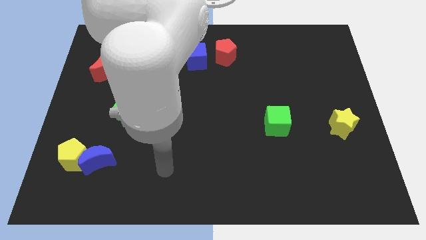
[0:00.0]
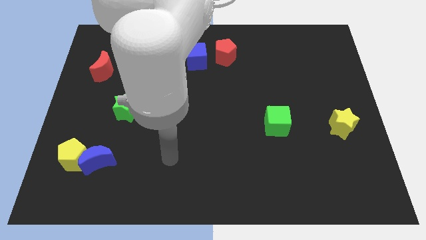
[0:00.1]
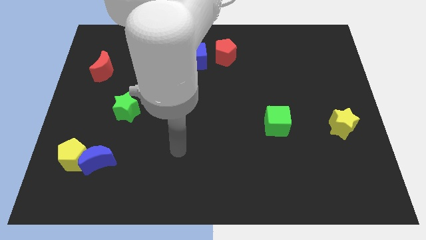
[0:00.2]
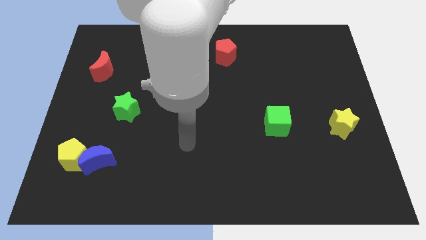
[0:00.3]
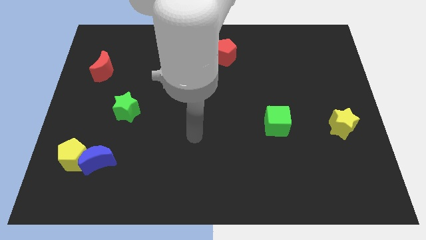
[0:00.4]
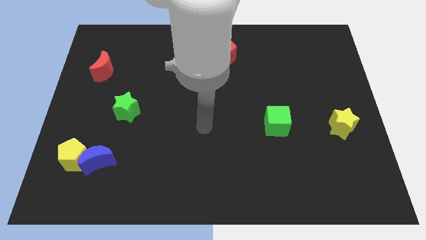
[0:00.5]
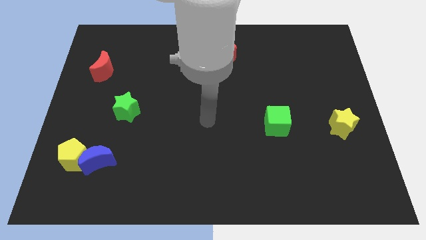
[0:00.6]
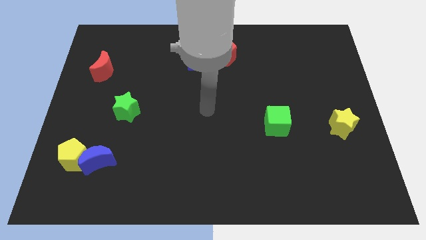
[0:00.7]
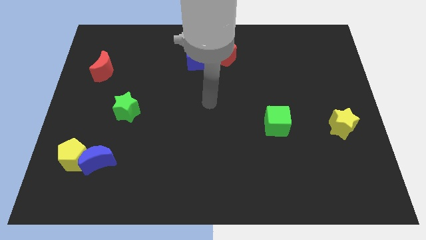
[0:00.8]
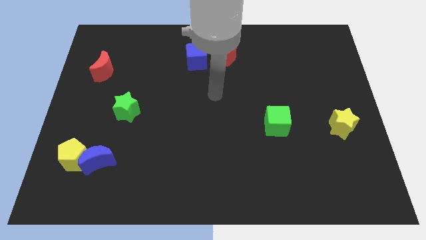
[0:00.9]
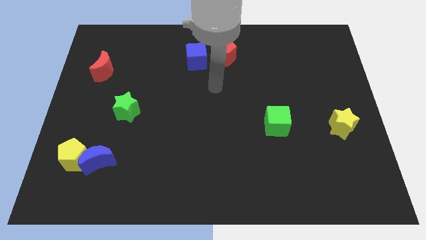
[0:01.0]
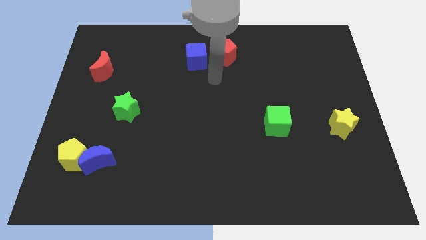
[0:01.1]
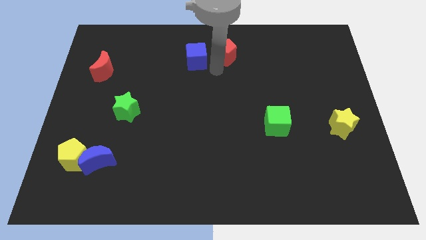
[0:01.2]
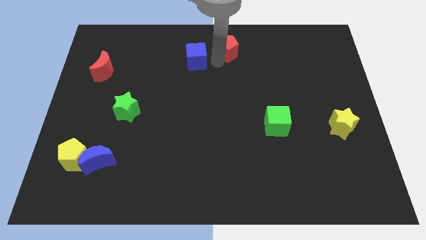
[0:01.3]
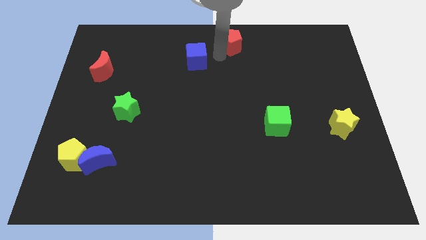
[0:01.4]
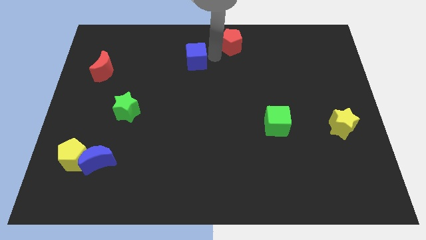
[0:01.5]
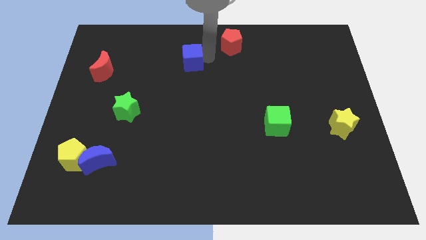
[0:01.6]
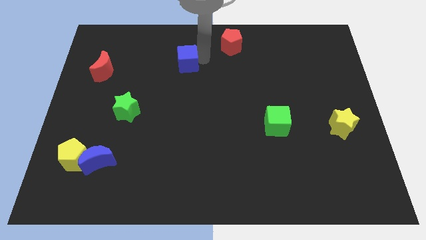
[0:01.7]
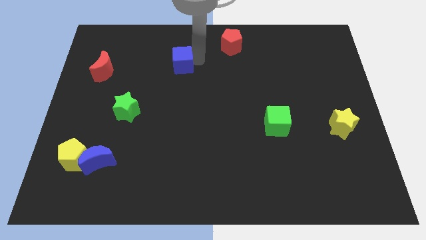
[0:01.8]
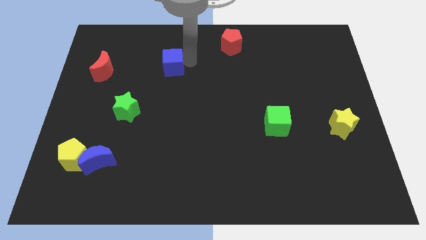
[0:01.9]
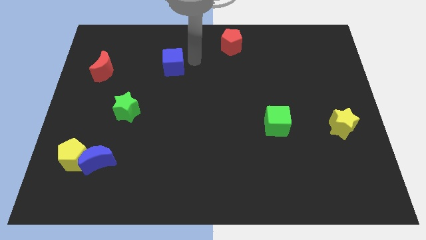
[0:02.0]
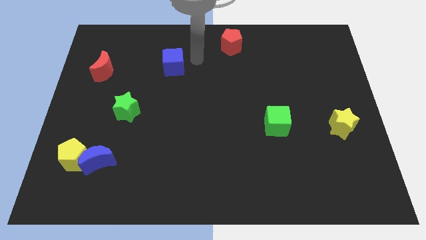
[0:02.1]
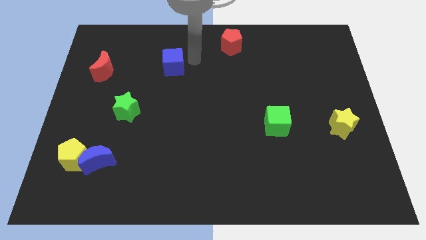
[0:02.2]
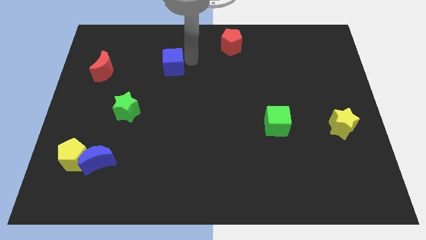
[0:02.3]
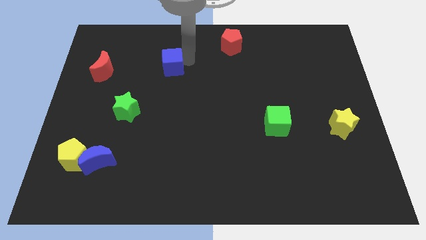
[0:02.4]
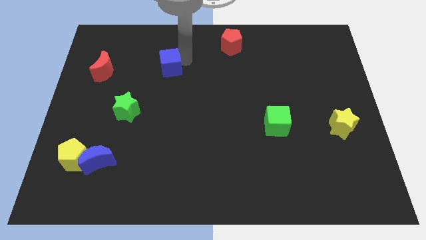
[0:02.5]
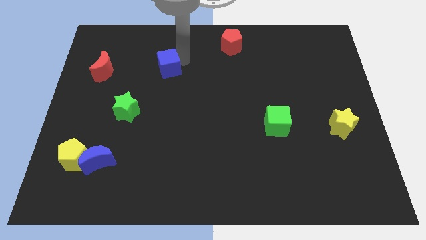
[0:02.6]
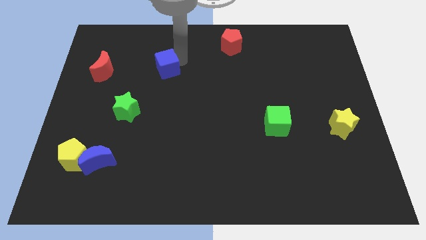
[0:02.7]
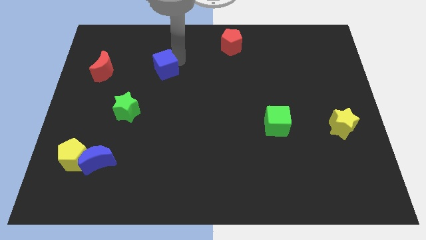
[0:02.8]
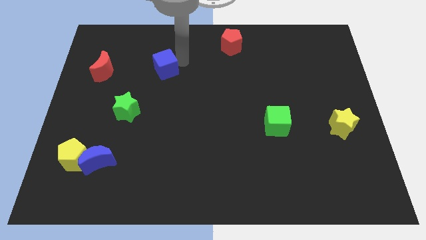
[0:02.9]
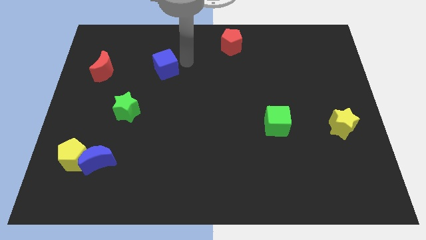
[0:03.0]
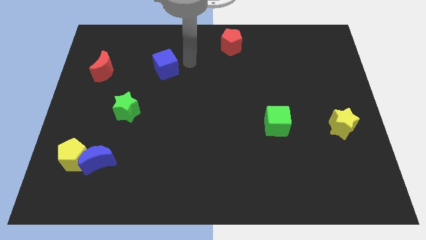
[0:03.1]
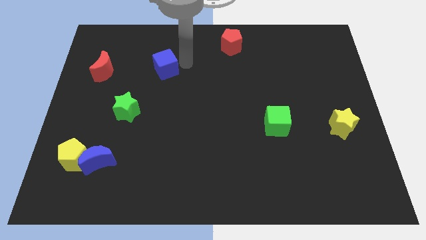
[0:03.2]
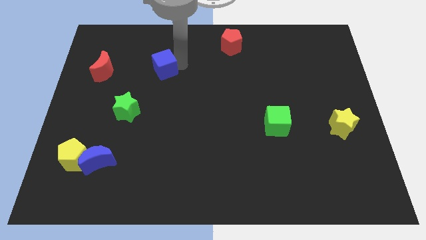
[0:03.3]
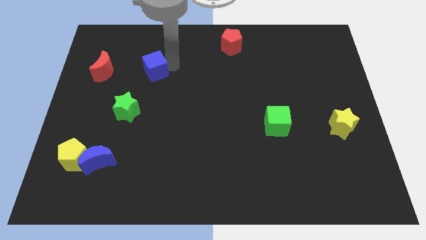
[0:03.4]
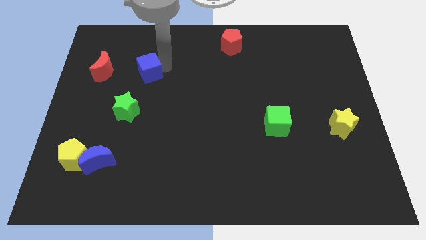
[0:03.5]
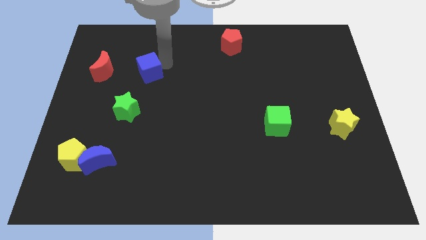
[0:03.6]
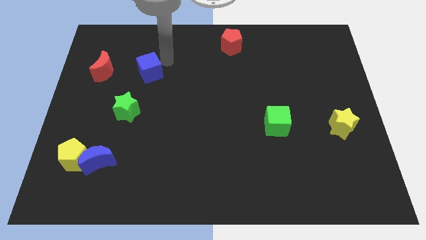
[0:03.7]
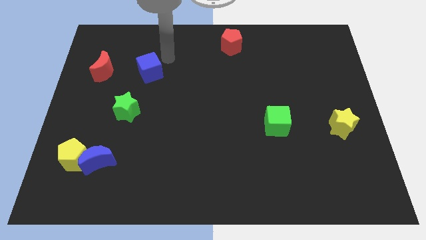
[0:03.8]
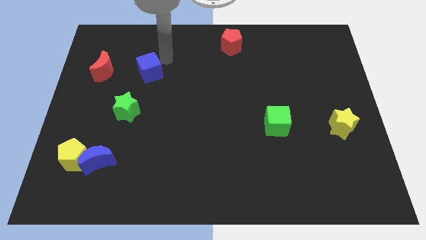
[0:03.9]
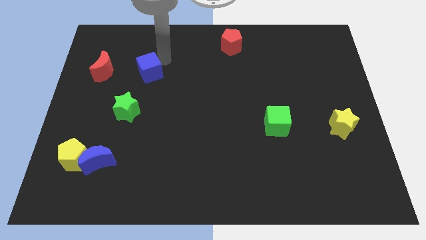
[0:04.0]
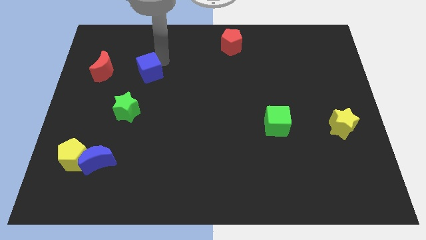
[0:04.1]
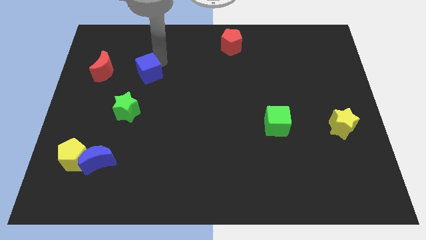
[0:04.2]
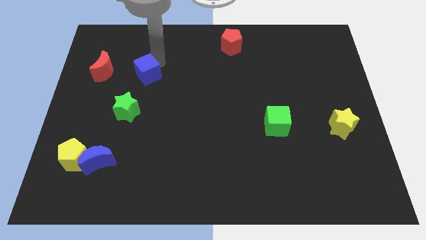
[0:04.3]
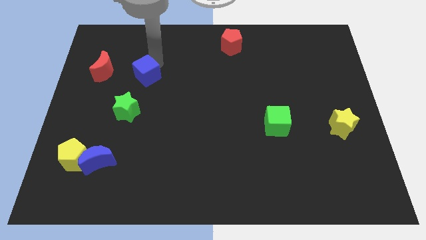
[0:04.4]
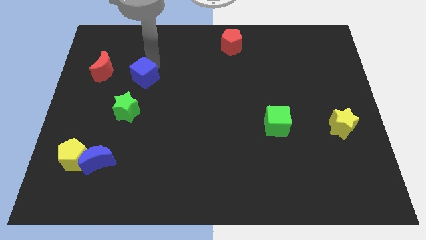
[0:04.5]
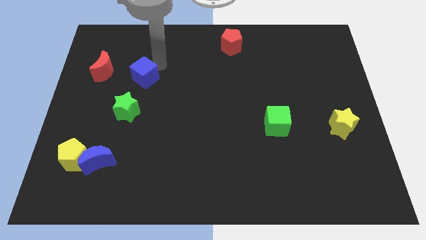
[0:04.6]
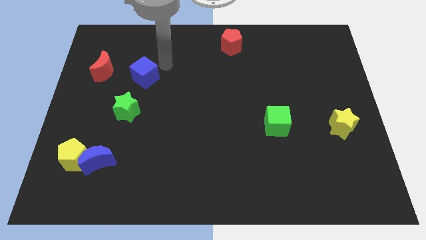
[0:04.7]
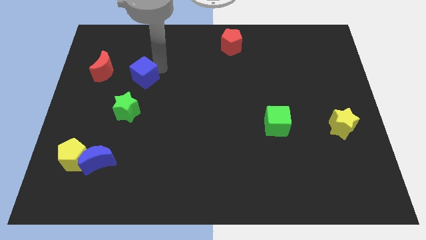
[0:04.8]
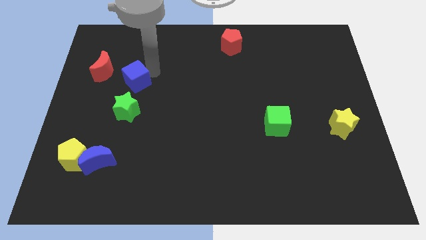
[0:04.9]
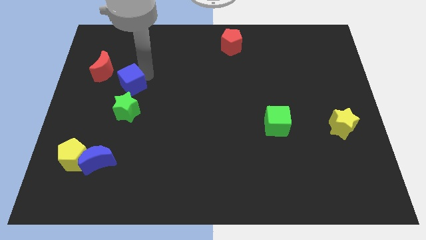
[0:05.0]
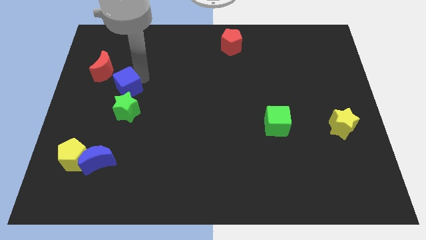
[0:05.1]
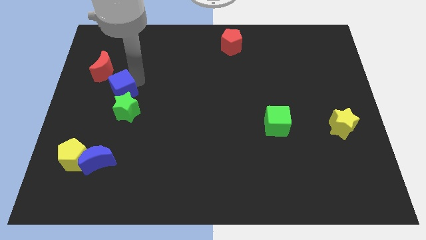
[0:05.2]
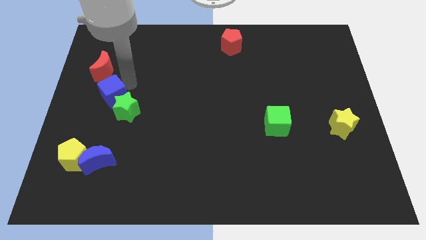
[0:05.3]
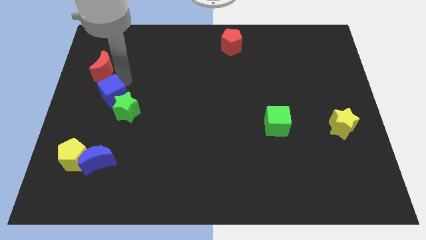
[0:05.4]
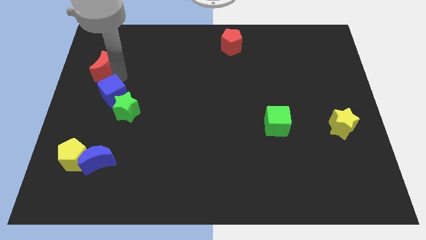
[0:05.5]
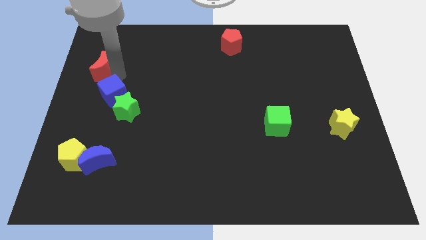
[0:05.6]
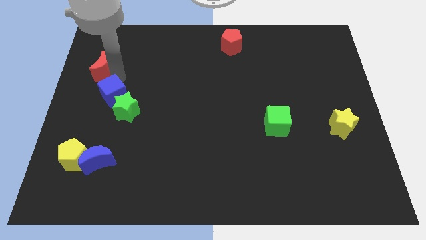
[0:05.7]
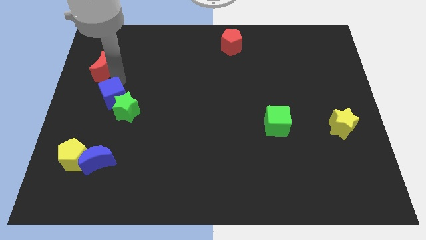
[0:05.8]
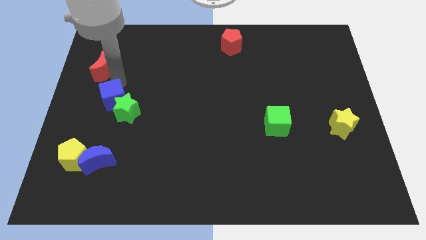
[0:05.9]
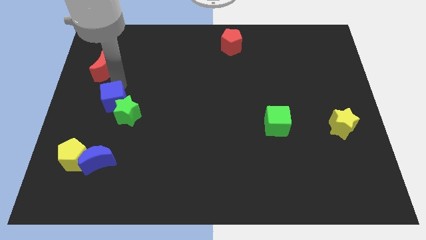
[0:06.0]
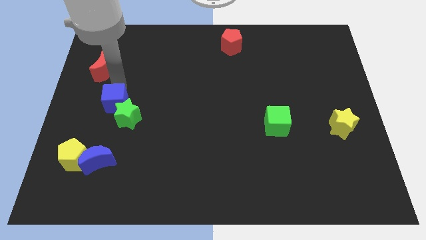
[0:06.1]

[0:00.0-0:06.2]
push the blue cube above the blue moon

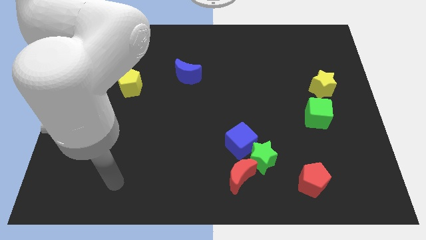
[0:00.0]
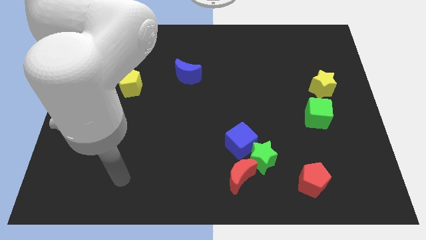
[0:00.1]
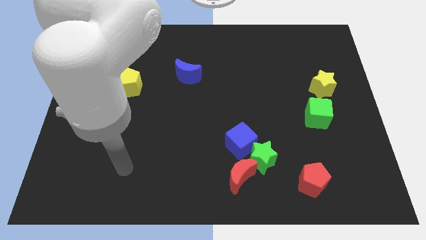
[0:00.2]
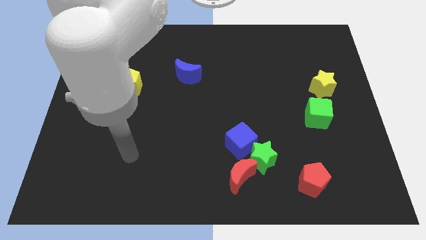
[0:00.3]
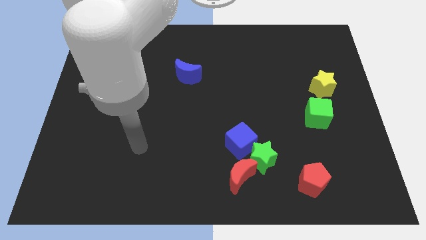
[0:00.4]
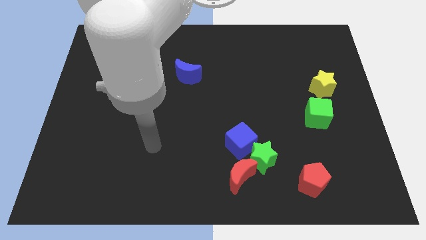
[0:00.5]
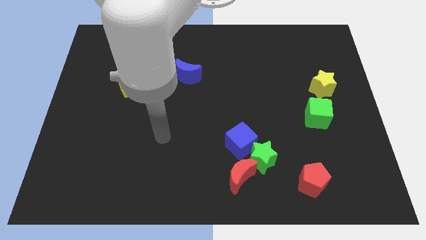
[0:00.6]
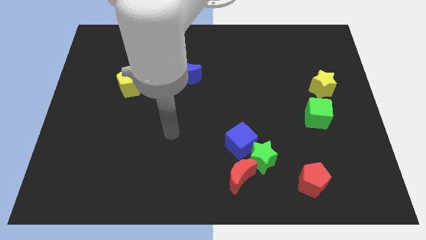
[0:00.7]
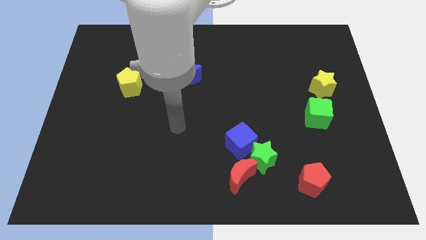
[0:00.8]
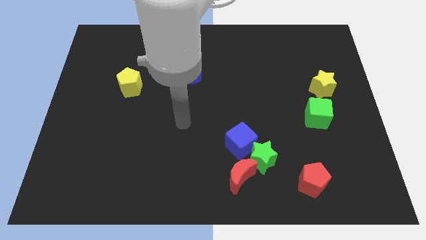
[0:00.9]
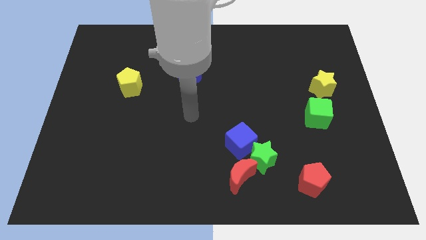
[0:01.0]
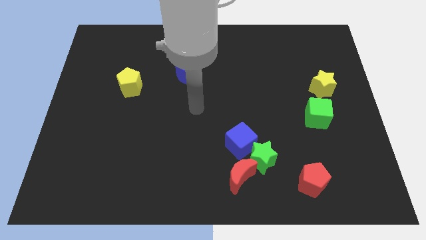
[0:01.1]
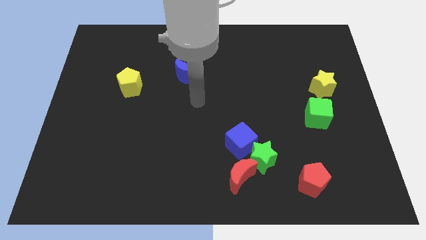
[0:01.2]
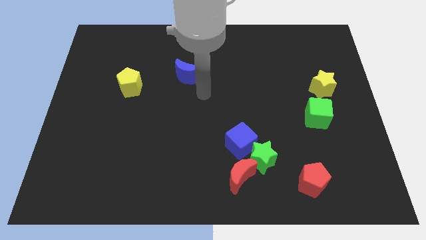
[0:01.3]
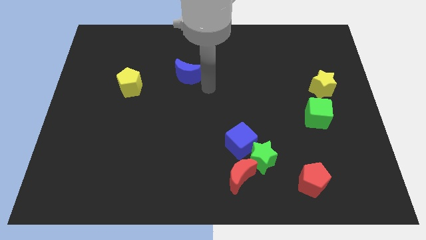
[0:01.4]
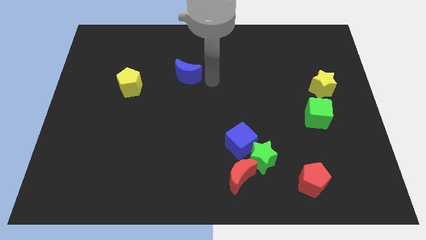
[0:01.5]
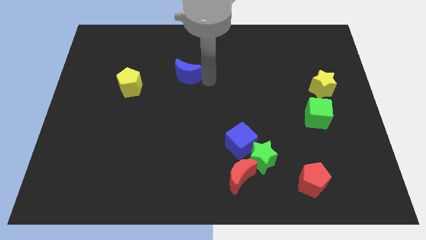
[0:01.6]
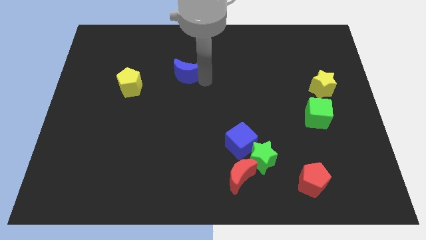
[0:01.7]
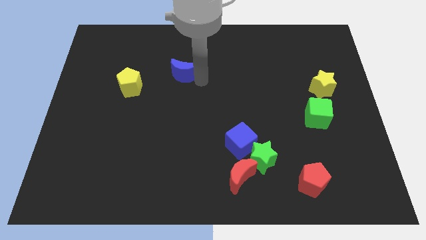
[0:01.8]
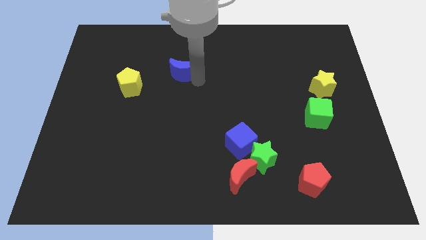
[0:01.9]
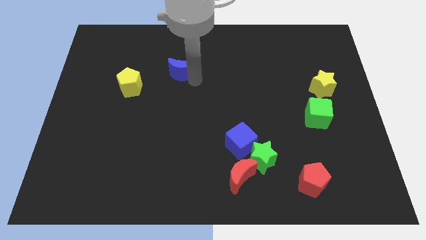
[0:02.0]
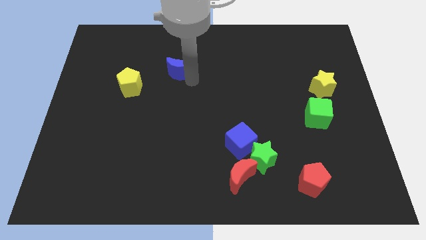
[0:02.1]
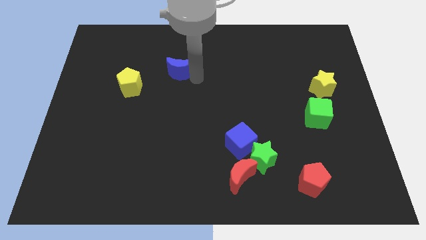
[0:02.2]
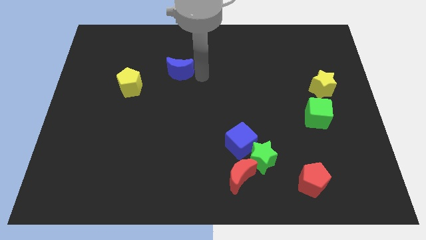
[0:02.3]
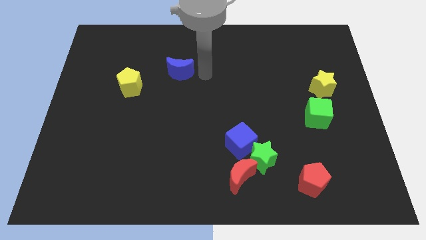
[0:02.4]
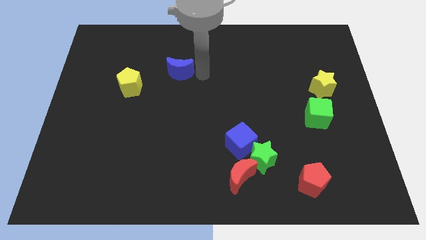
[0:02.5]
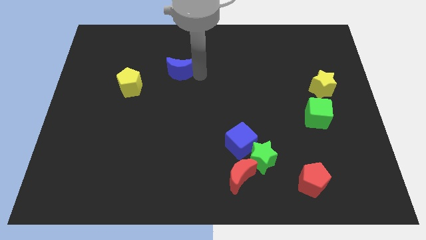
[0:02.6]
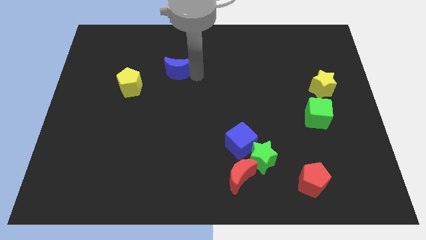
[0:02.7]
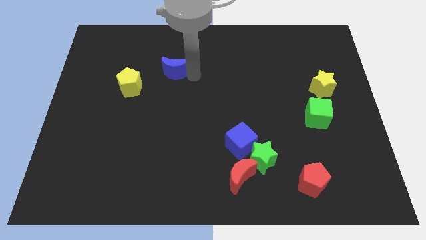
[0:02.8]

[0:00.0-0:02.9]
put the blue moon diagonally up and to the right of the yellow pentagon
